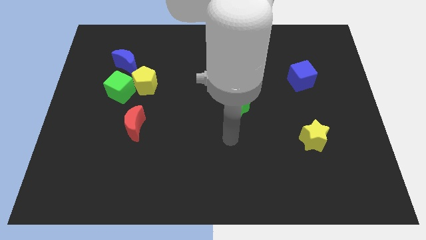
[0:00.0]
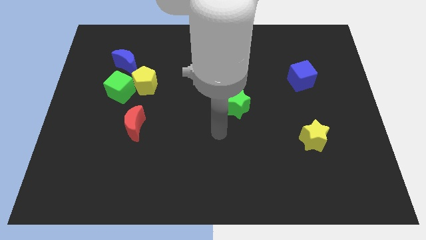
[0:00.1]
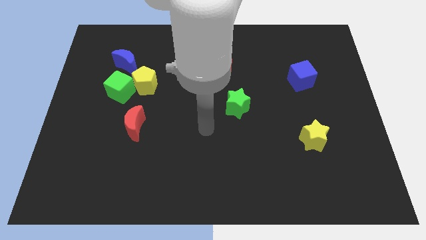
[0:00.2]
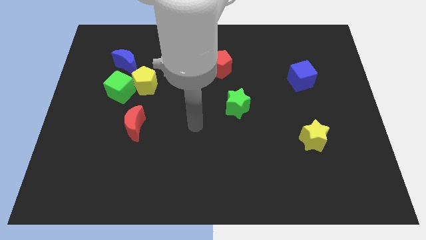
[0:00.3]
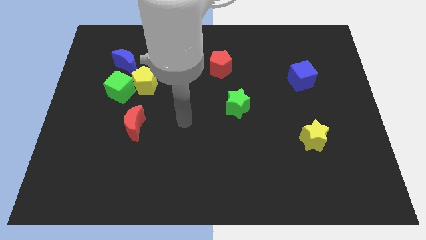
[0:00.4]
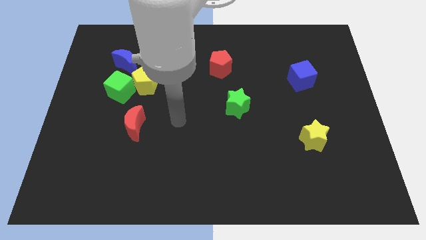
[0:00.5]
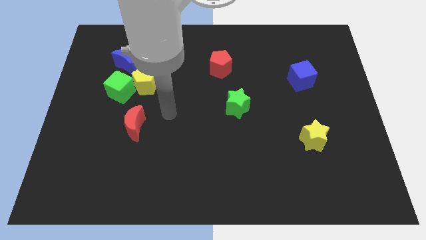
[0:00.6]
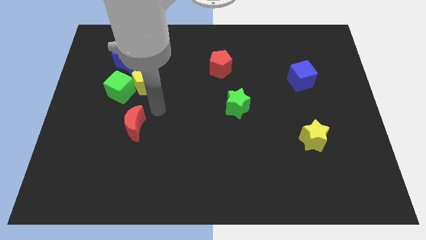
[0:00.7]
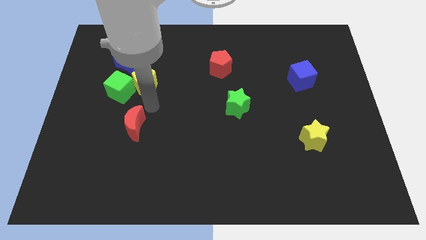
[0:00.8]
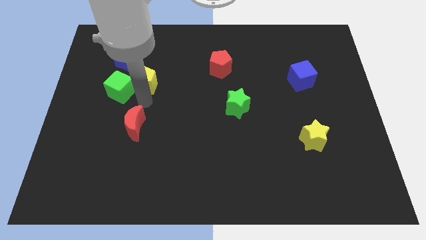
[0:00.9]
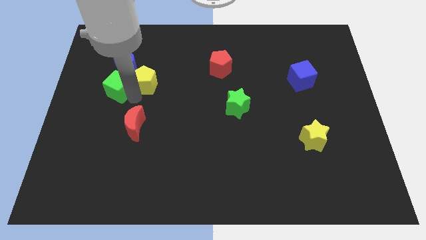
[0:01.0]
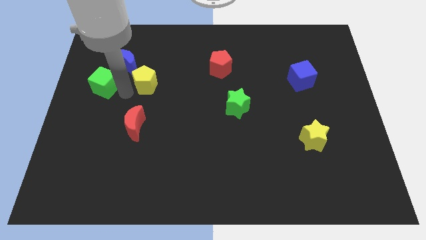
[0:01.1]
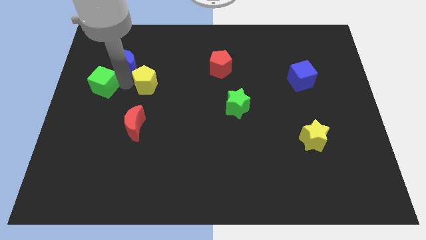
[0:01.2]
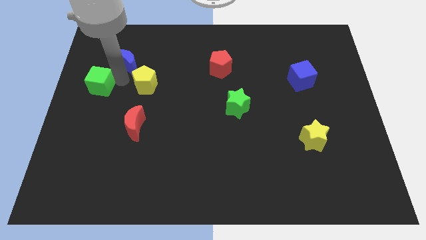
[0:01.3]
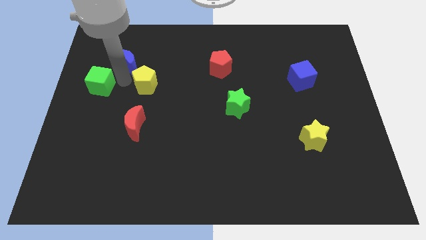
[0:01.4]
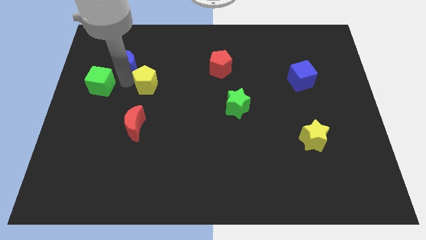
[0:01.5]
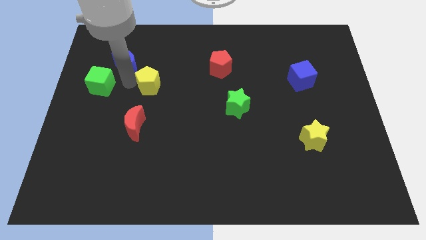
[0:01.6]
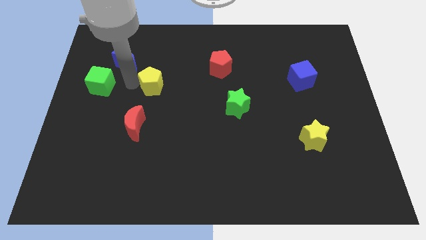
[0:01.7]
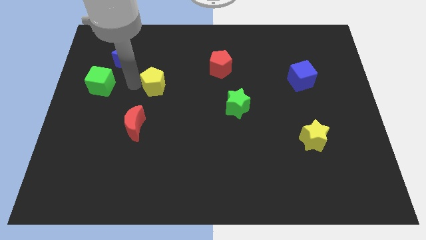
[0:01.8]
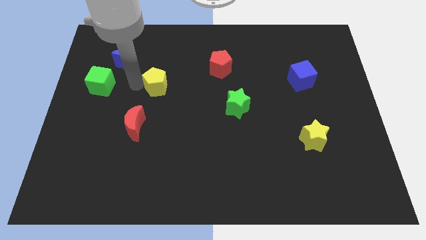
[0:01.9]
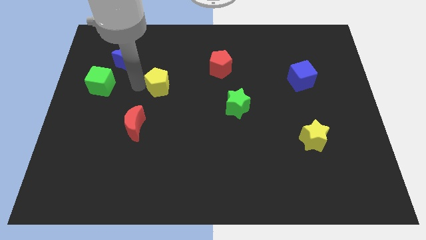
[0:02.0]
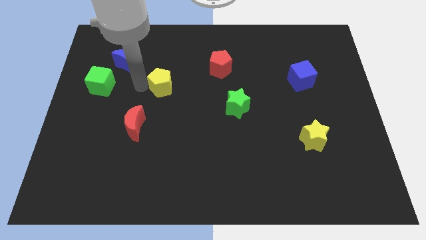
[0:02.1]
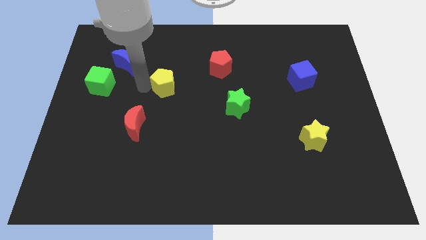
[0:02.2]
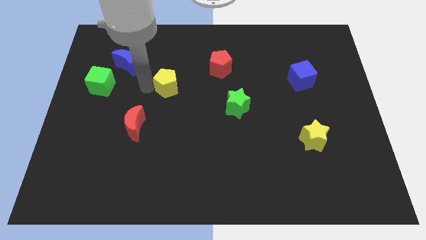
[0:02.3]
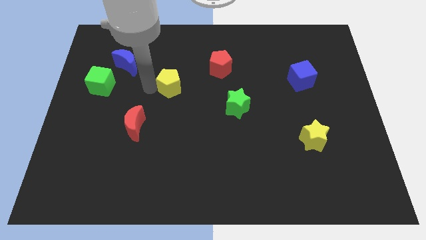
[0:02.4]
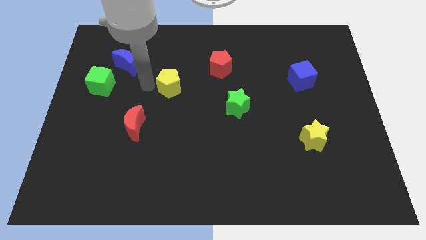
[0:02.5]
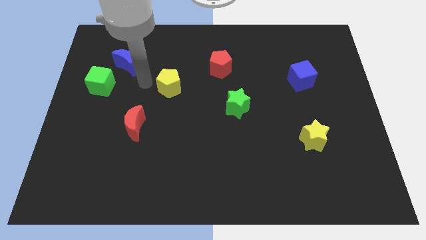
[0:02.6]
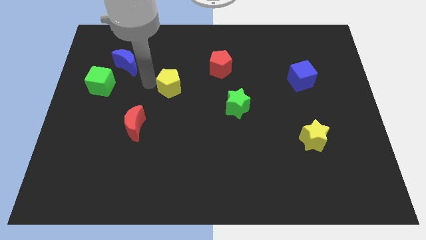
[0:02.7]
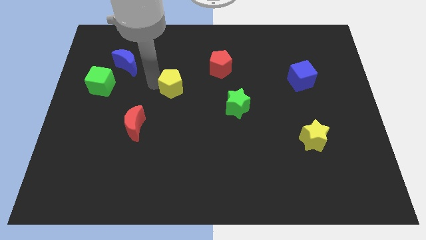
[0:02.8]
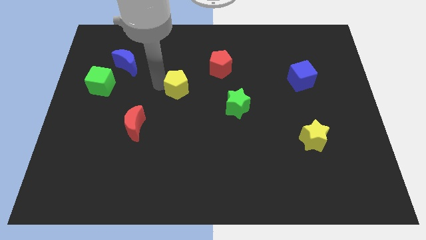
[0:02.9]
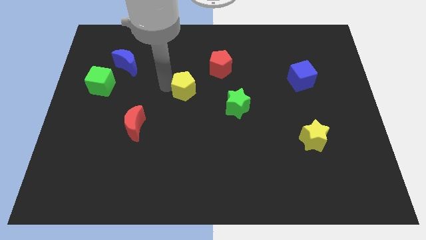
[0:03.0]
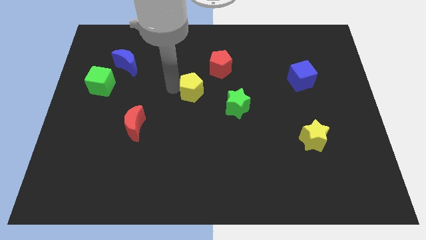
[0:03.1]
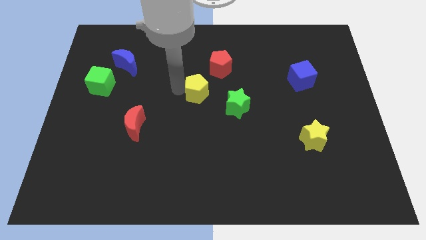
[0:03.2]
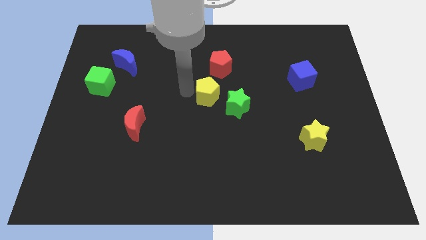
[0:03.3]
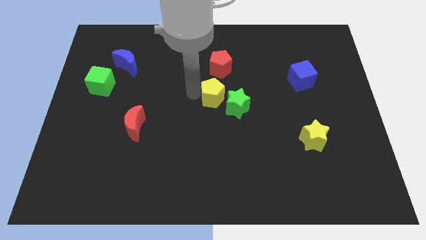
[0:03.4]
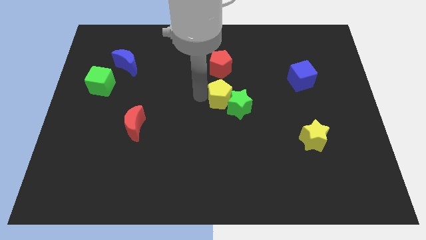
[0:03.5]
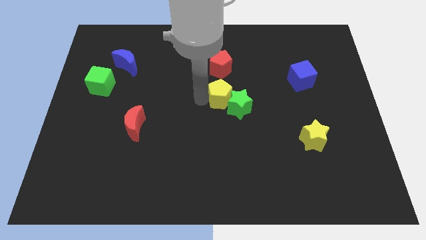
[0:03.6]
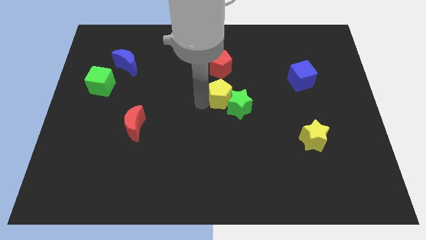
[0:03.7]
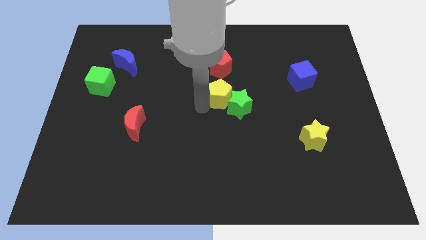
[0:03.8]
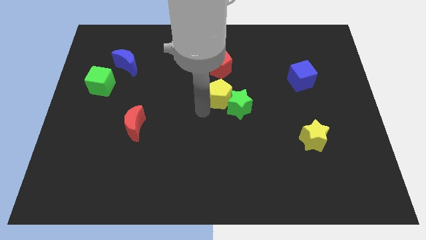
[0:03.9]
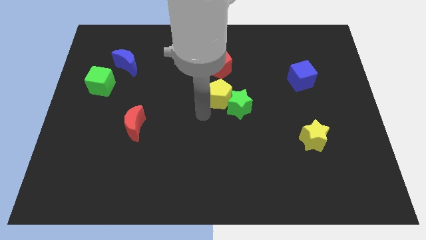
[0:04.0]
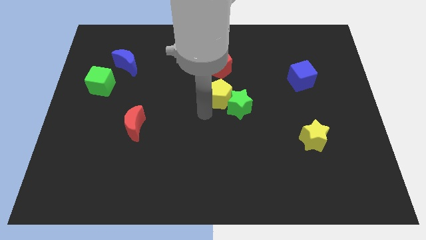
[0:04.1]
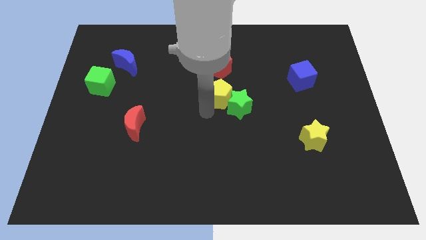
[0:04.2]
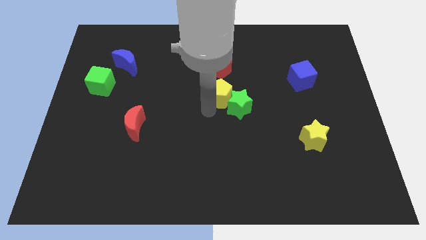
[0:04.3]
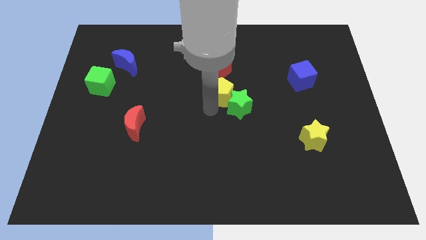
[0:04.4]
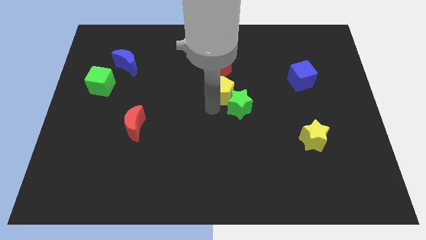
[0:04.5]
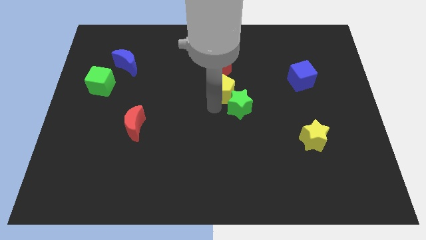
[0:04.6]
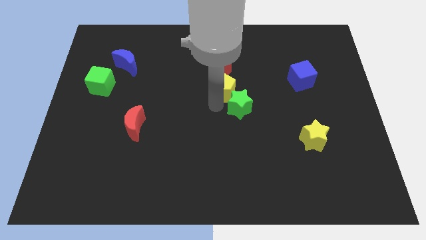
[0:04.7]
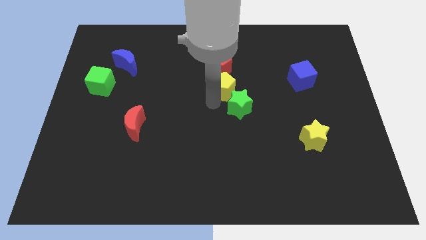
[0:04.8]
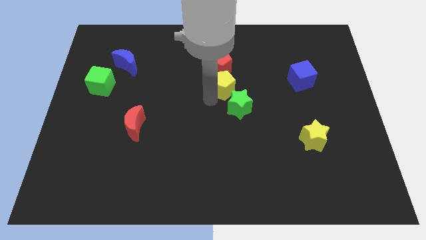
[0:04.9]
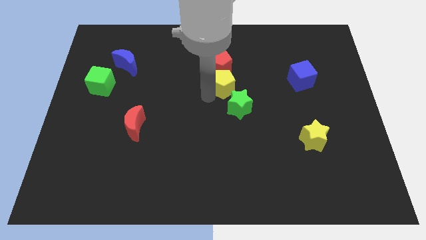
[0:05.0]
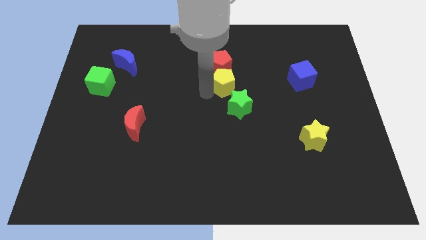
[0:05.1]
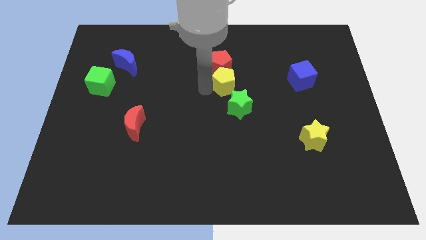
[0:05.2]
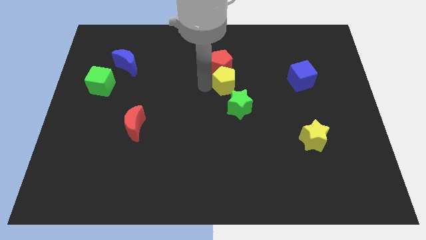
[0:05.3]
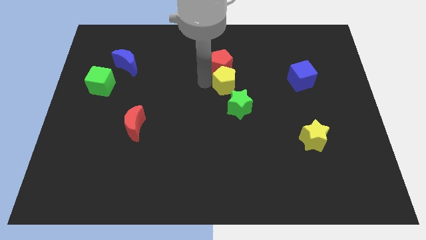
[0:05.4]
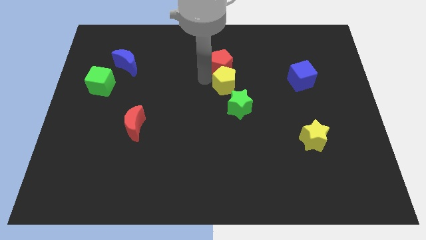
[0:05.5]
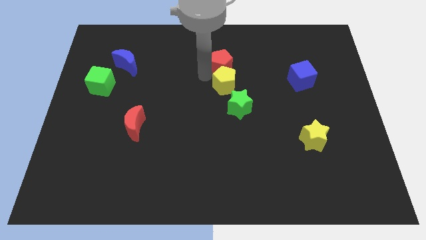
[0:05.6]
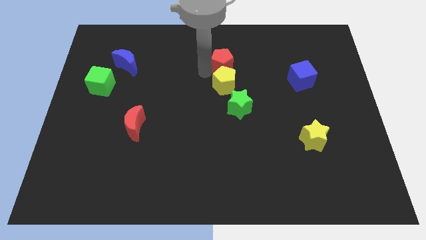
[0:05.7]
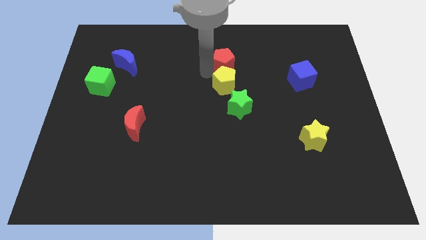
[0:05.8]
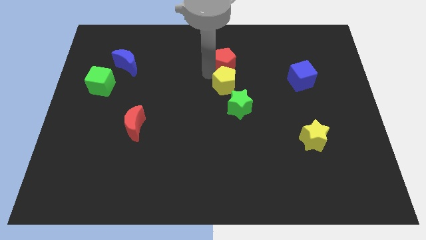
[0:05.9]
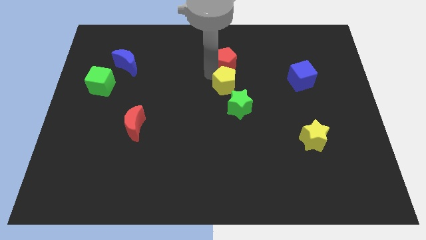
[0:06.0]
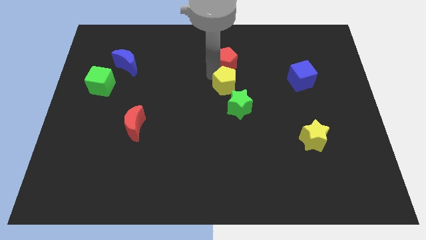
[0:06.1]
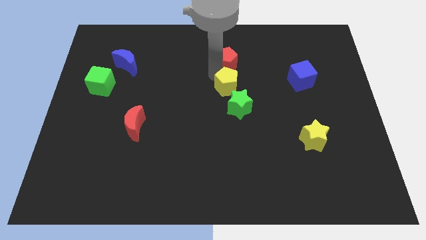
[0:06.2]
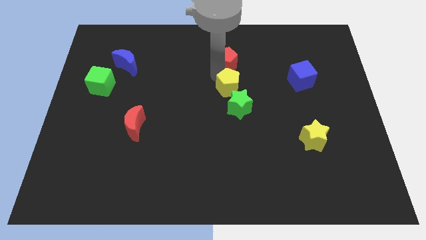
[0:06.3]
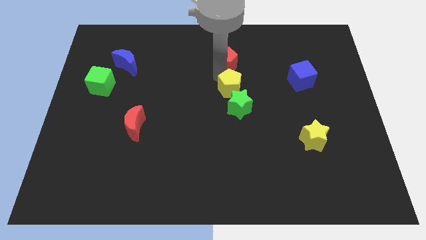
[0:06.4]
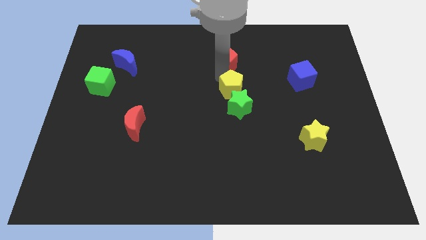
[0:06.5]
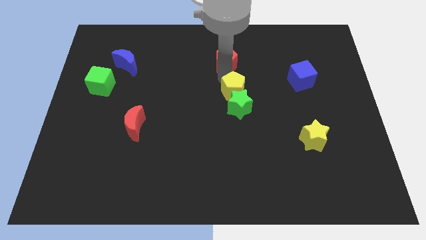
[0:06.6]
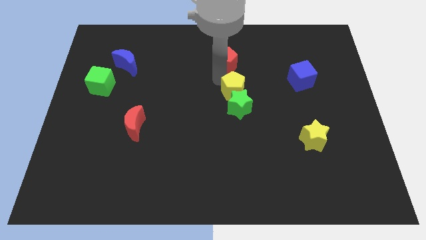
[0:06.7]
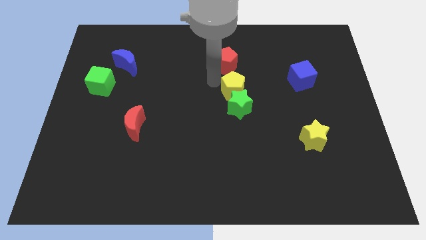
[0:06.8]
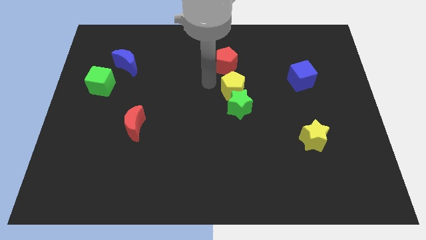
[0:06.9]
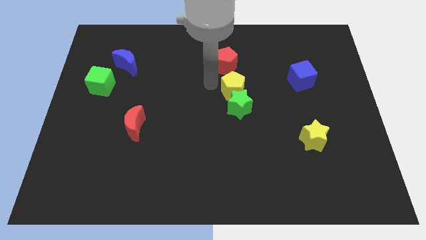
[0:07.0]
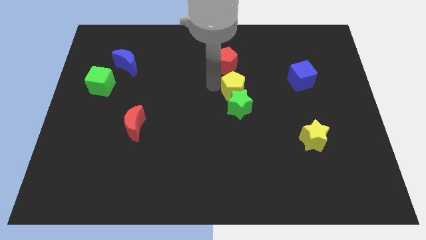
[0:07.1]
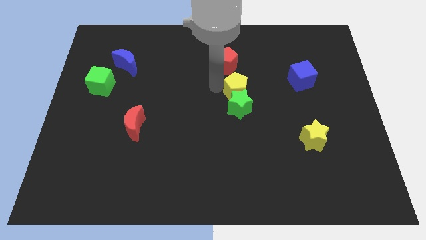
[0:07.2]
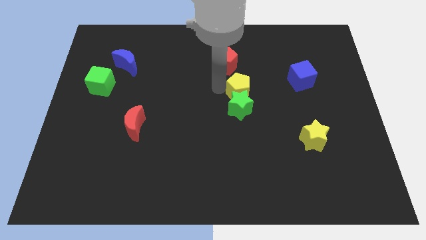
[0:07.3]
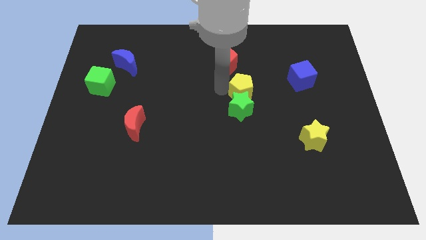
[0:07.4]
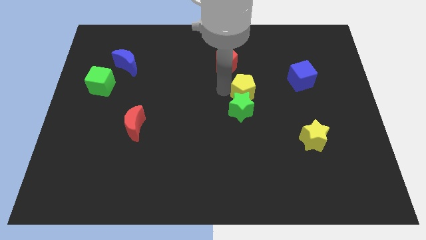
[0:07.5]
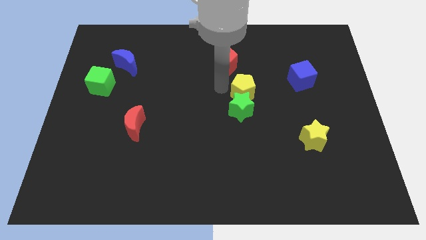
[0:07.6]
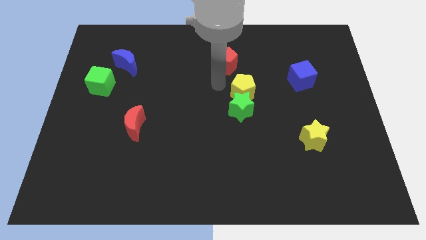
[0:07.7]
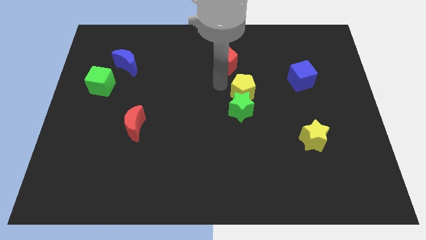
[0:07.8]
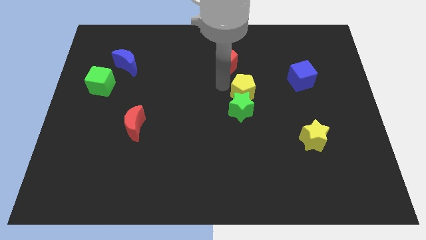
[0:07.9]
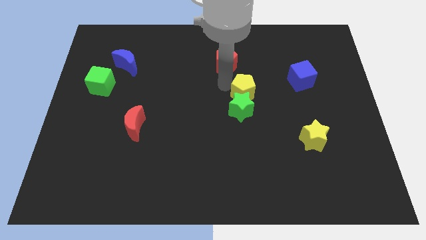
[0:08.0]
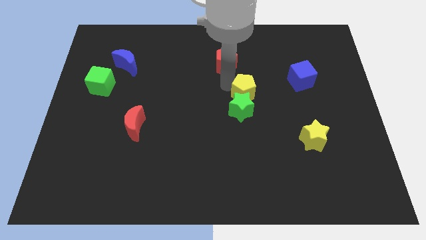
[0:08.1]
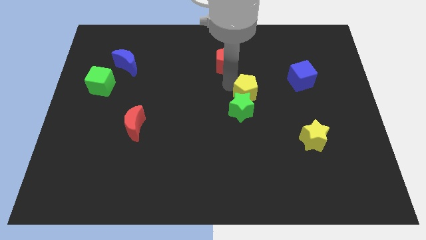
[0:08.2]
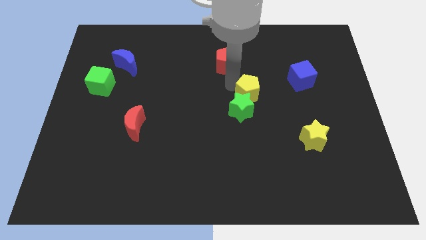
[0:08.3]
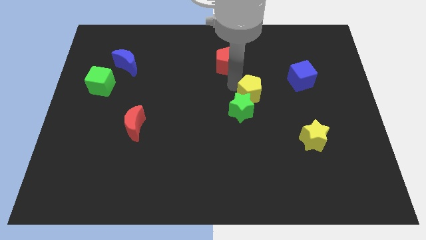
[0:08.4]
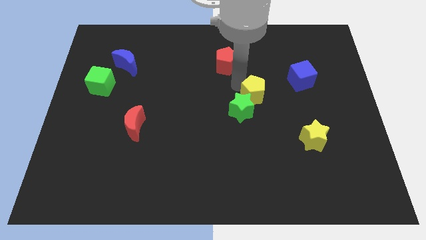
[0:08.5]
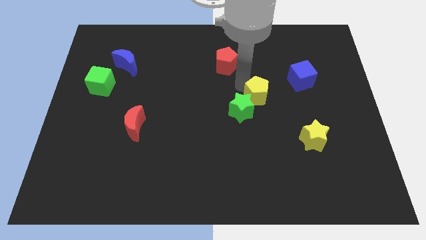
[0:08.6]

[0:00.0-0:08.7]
move the yellow pentagon to the right of the green star
